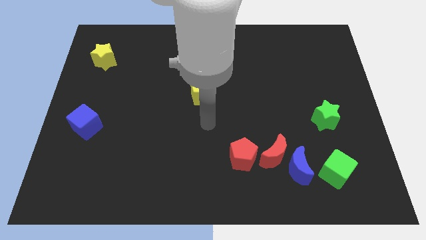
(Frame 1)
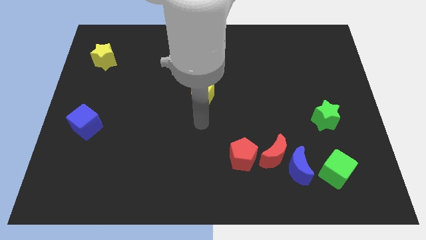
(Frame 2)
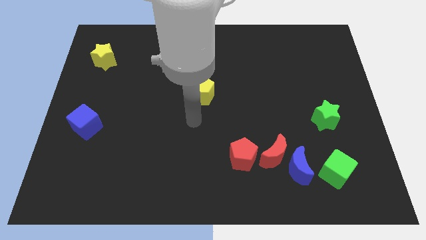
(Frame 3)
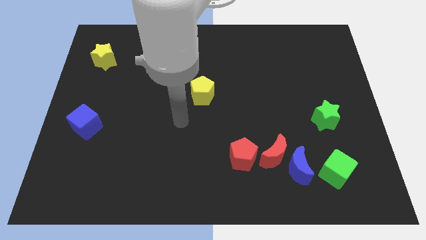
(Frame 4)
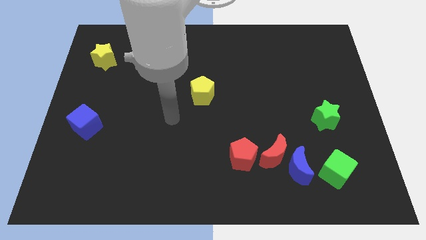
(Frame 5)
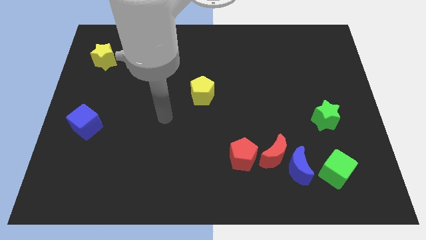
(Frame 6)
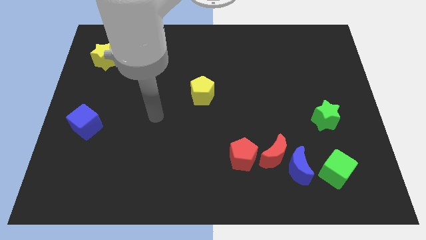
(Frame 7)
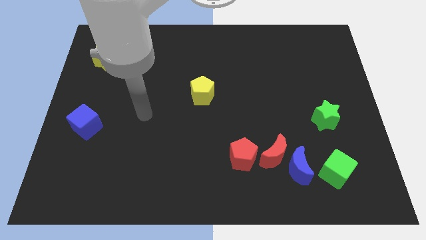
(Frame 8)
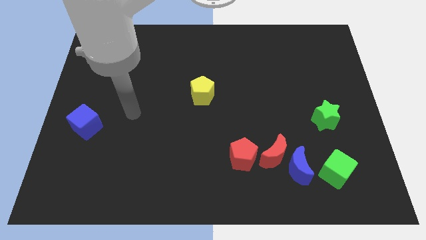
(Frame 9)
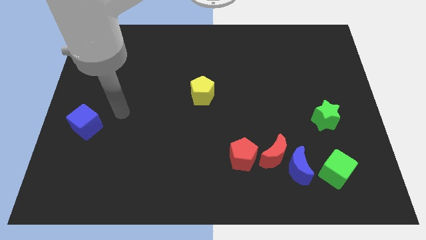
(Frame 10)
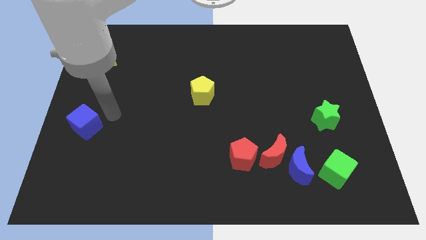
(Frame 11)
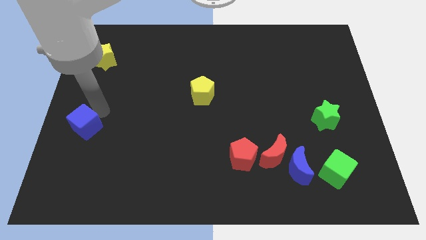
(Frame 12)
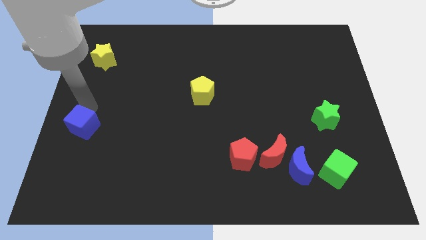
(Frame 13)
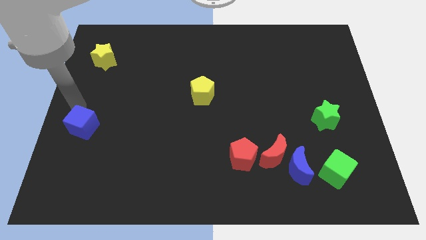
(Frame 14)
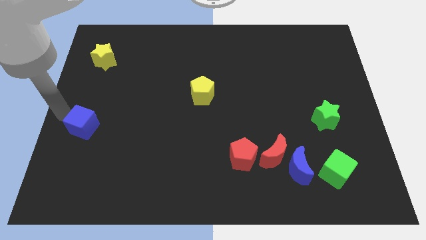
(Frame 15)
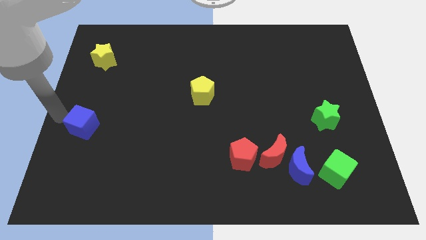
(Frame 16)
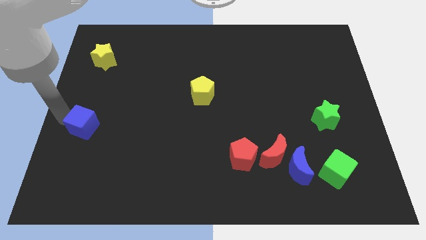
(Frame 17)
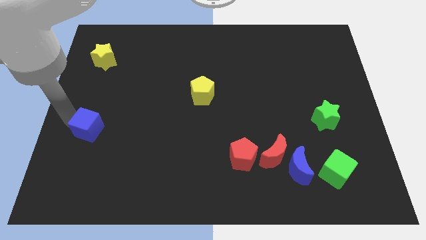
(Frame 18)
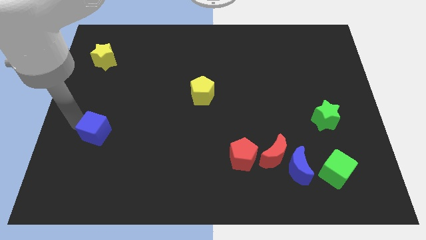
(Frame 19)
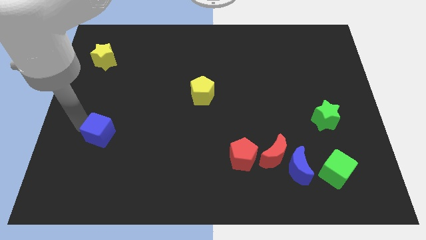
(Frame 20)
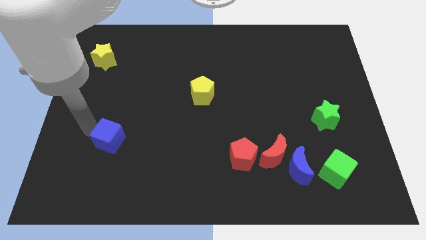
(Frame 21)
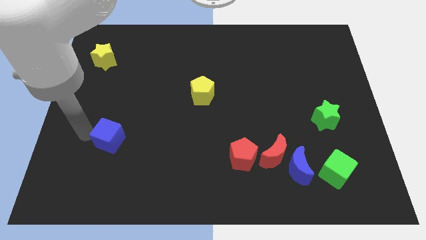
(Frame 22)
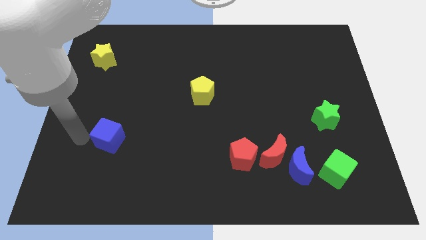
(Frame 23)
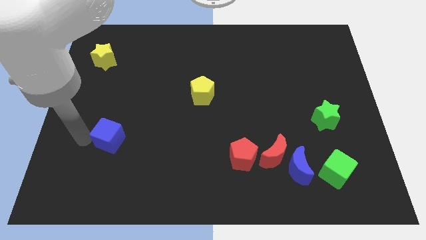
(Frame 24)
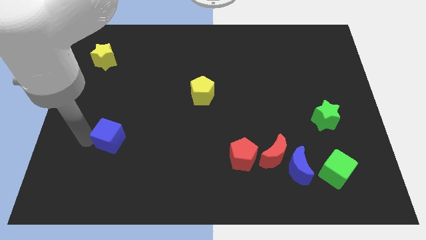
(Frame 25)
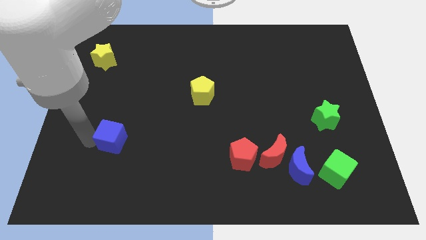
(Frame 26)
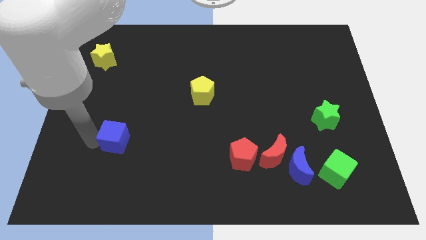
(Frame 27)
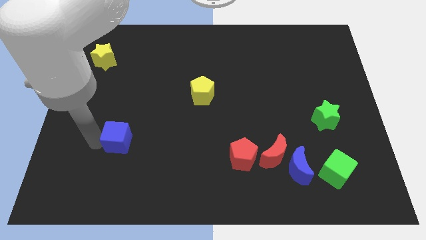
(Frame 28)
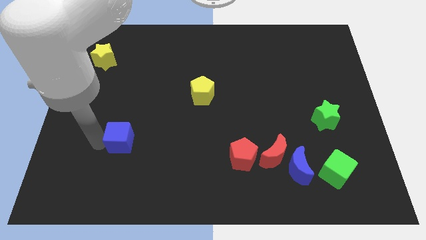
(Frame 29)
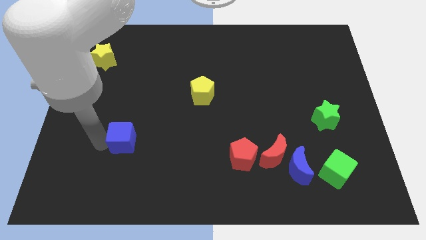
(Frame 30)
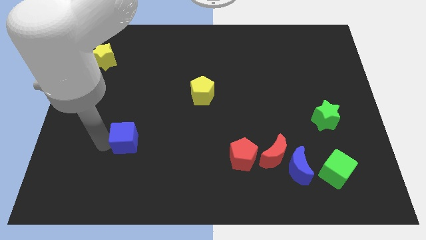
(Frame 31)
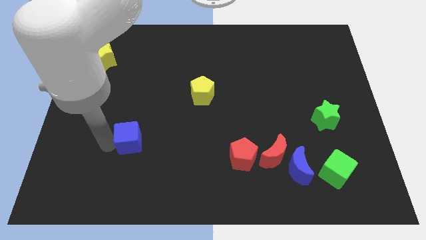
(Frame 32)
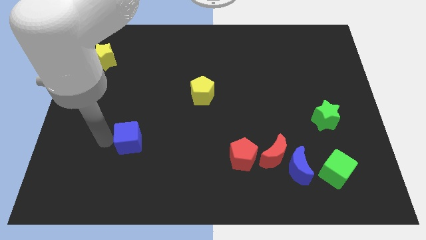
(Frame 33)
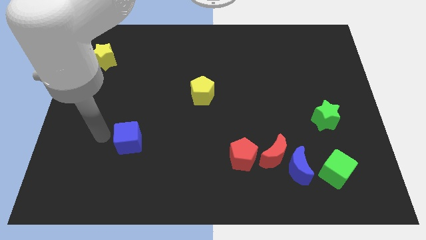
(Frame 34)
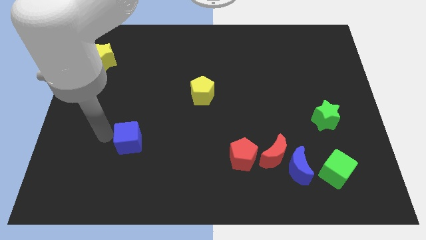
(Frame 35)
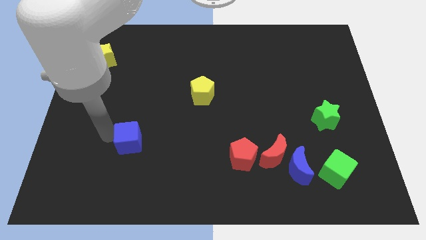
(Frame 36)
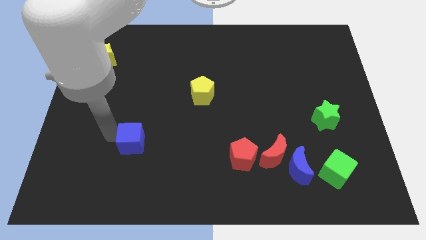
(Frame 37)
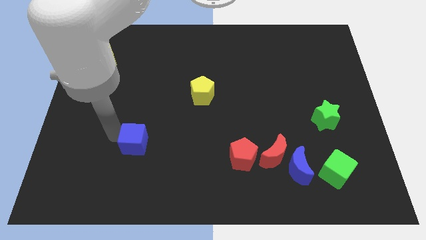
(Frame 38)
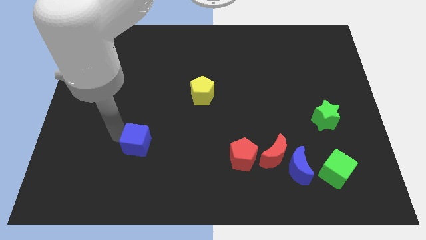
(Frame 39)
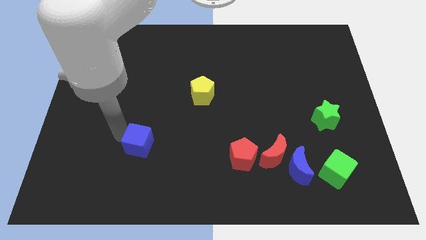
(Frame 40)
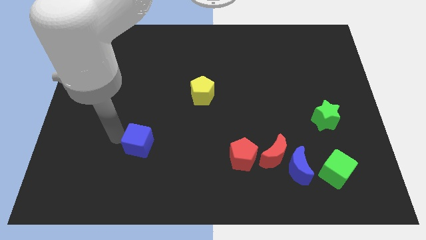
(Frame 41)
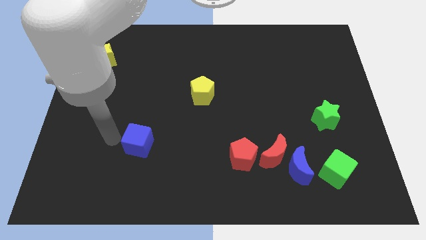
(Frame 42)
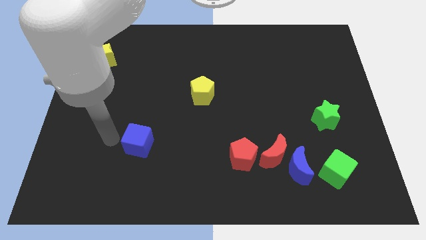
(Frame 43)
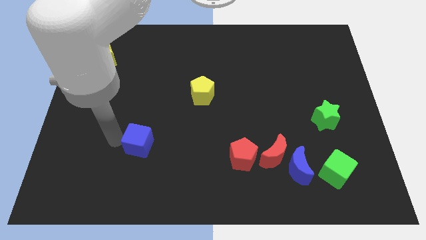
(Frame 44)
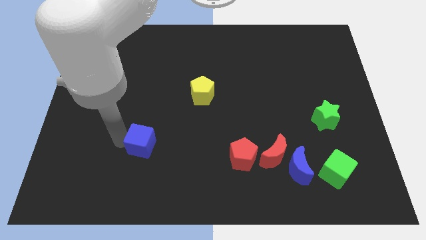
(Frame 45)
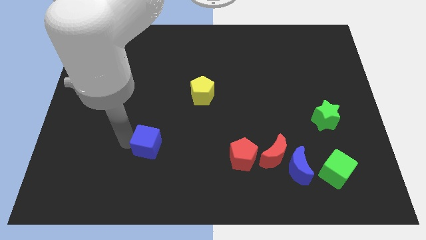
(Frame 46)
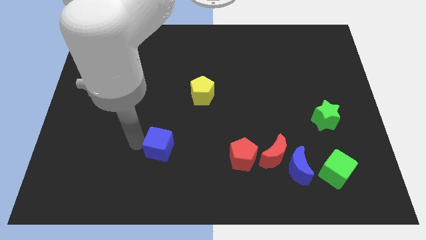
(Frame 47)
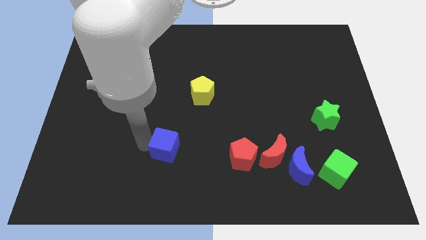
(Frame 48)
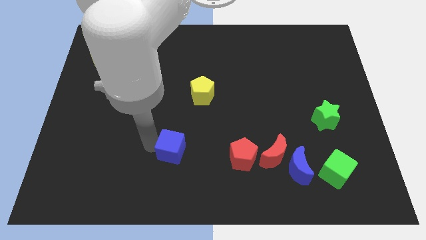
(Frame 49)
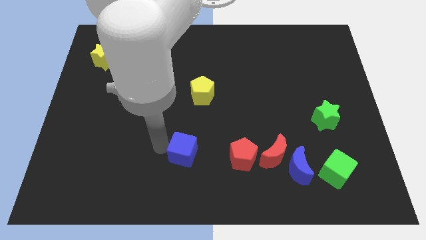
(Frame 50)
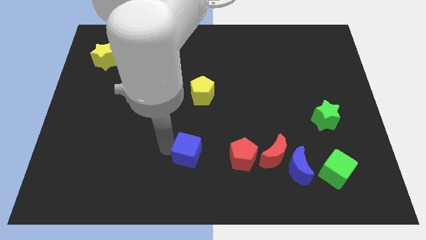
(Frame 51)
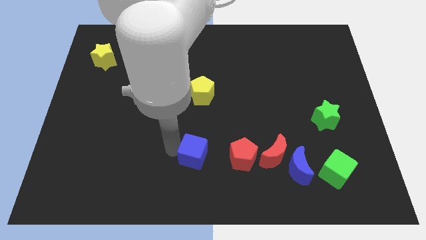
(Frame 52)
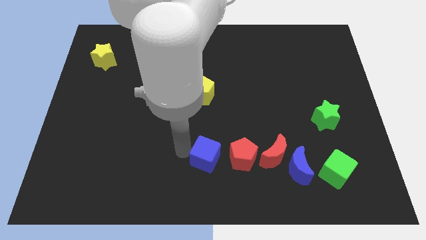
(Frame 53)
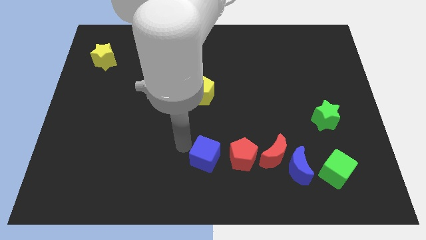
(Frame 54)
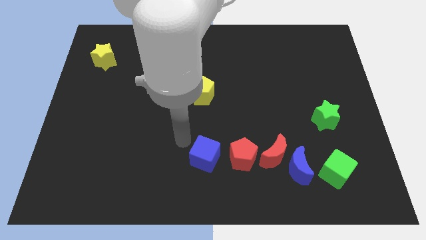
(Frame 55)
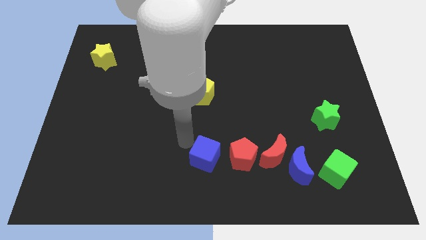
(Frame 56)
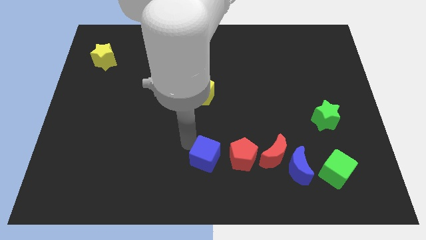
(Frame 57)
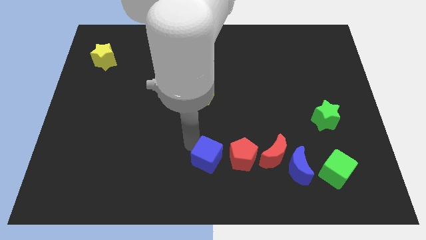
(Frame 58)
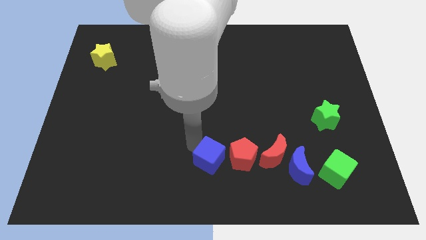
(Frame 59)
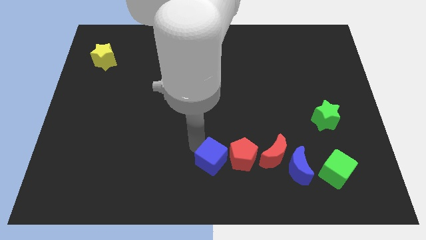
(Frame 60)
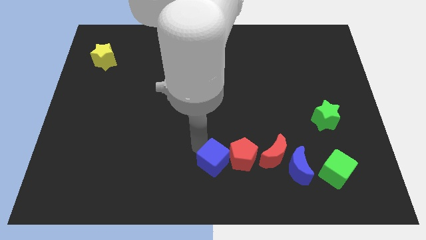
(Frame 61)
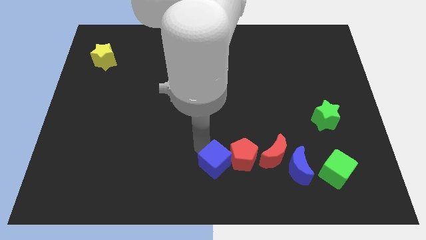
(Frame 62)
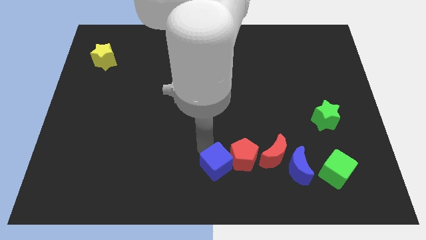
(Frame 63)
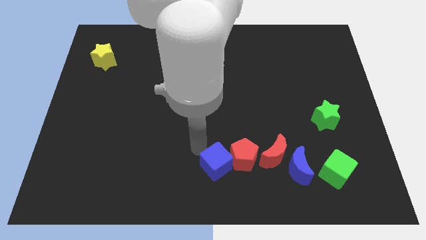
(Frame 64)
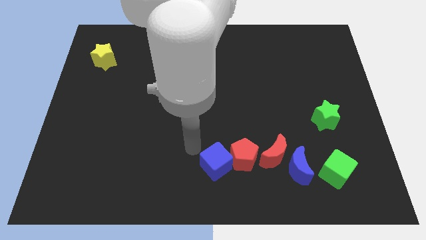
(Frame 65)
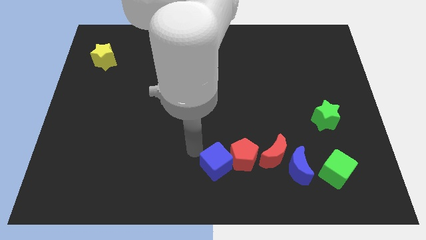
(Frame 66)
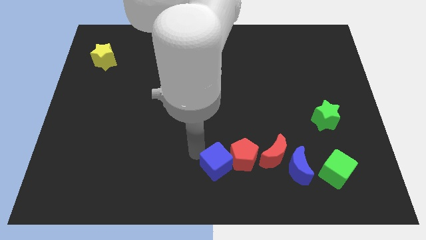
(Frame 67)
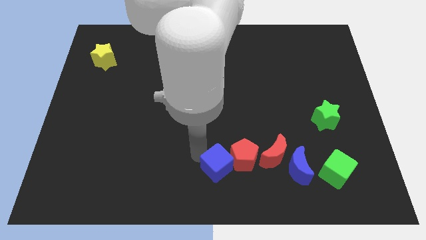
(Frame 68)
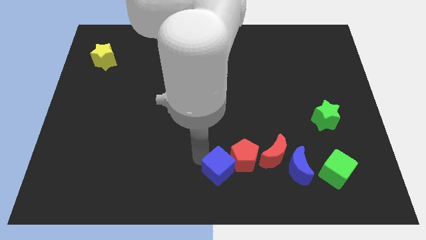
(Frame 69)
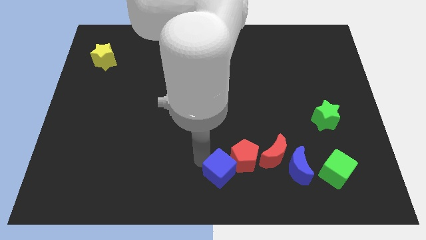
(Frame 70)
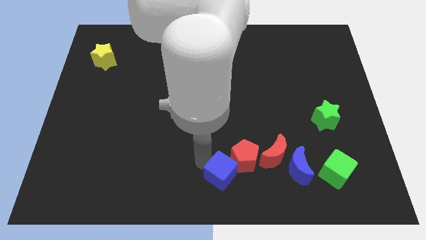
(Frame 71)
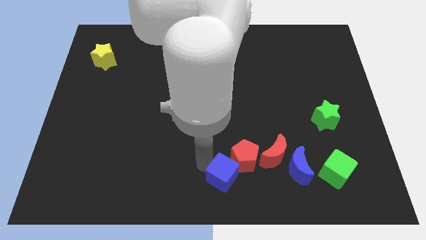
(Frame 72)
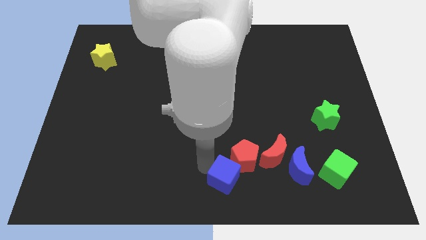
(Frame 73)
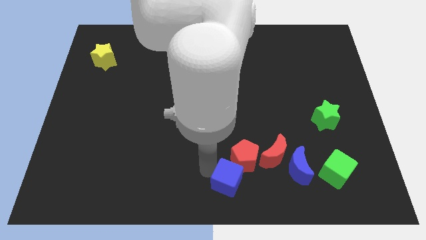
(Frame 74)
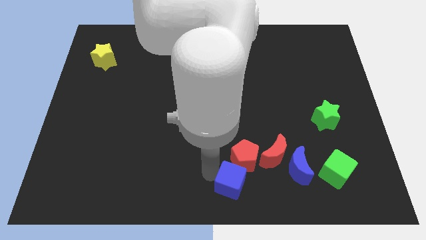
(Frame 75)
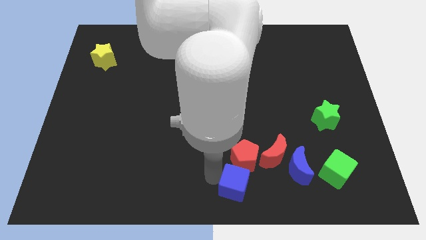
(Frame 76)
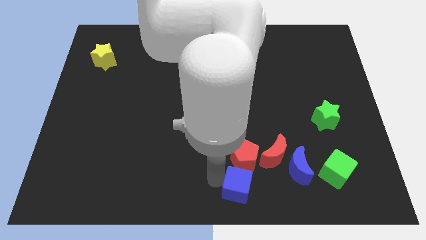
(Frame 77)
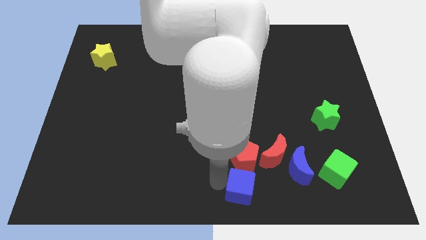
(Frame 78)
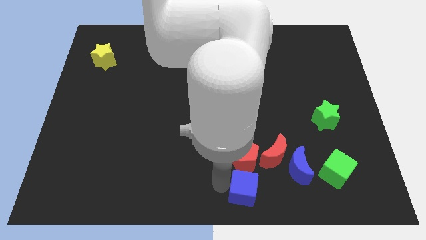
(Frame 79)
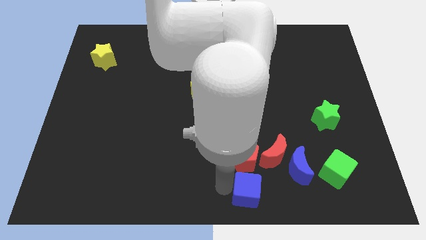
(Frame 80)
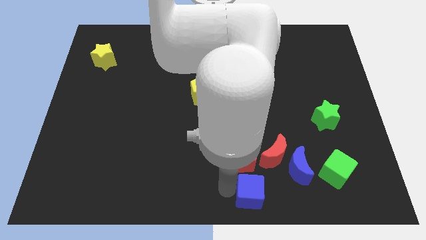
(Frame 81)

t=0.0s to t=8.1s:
put the blue cube to the bottom right side of the red pentagon
